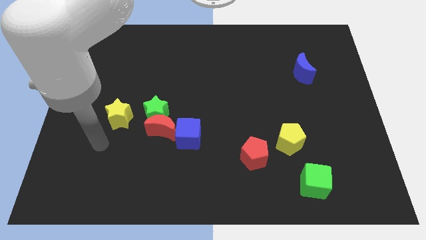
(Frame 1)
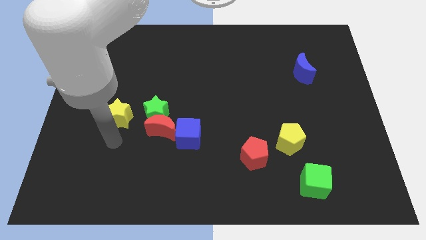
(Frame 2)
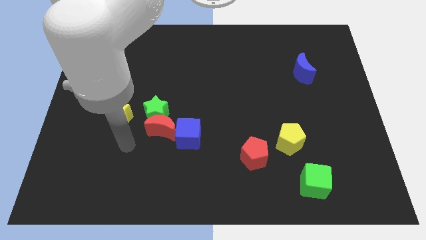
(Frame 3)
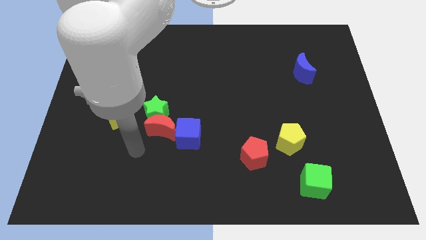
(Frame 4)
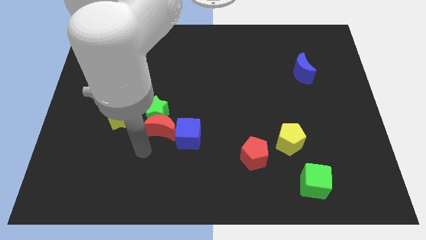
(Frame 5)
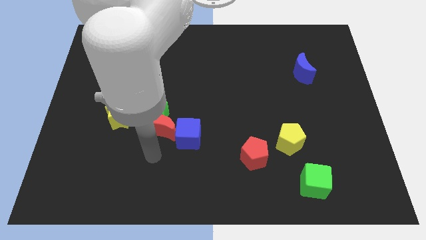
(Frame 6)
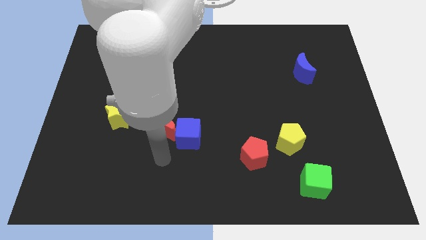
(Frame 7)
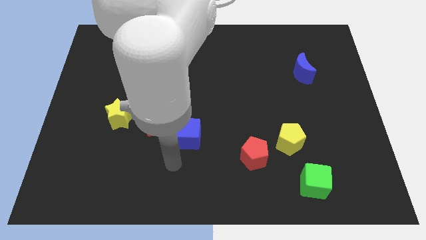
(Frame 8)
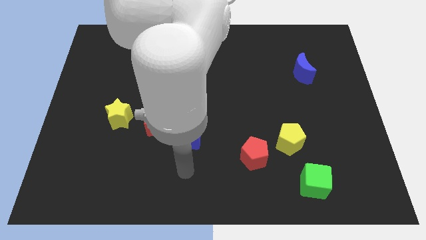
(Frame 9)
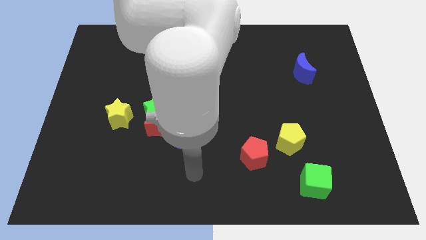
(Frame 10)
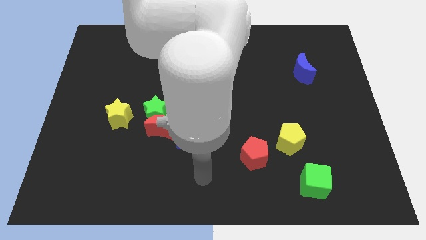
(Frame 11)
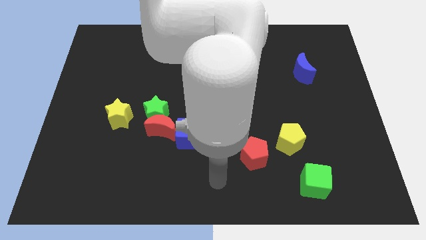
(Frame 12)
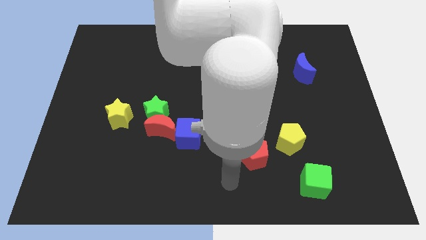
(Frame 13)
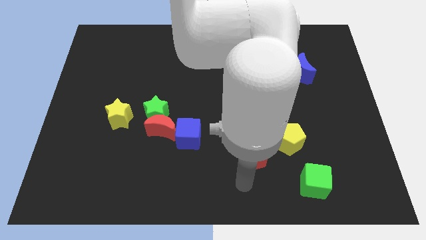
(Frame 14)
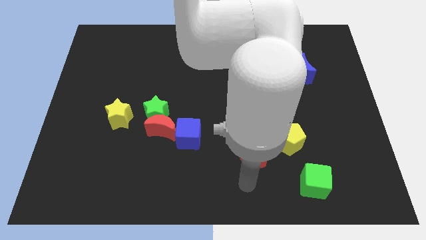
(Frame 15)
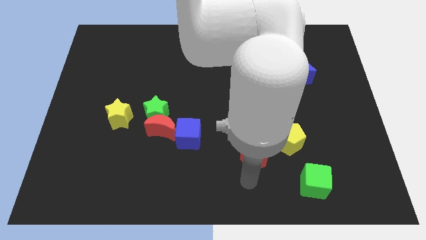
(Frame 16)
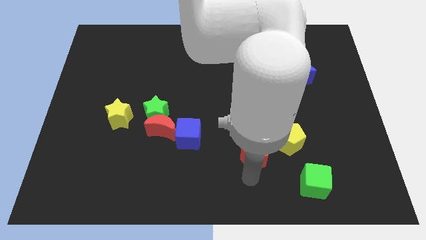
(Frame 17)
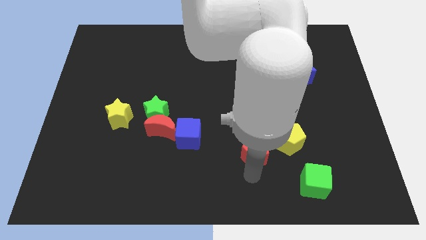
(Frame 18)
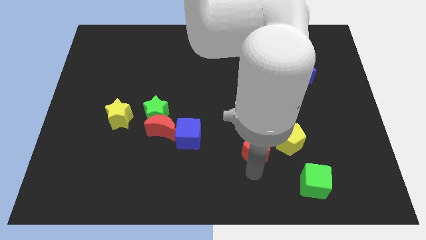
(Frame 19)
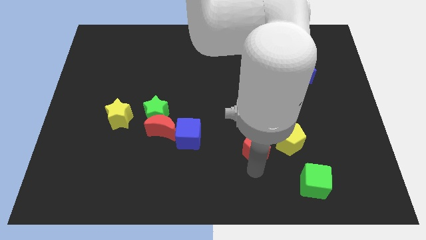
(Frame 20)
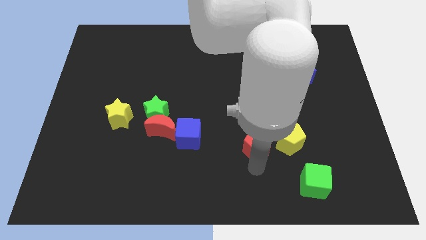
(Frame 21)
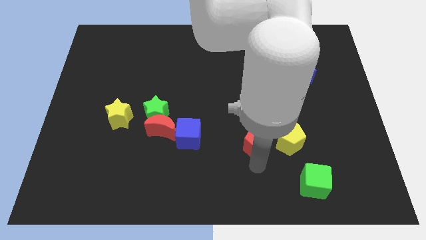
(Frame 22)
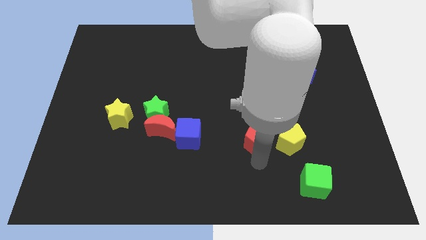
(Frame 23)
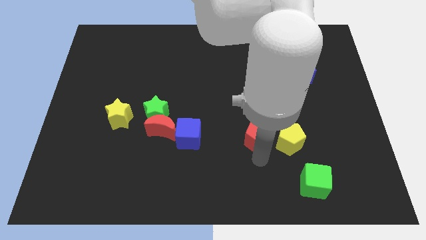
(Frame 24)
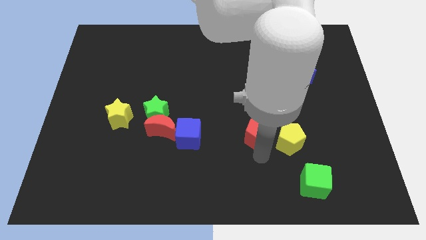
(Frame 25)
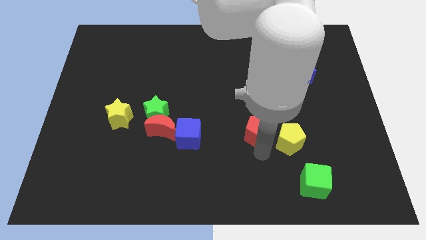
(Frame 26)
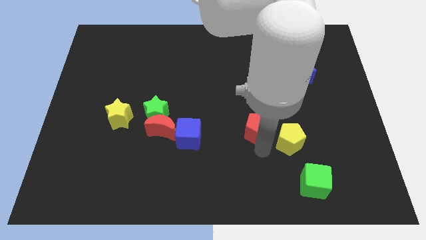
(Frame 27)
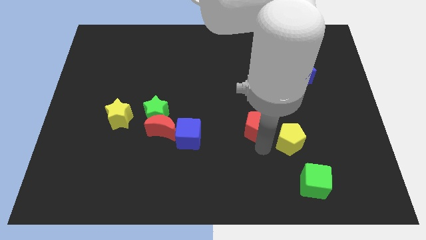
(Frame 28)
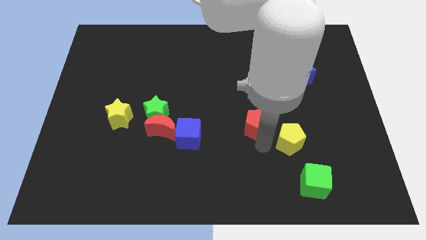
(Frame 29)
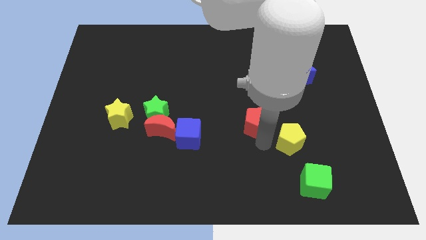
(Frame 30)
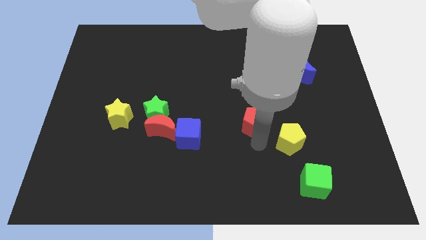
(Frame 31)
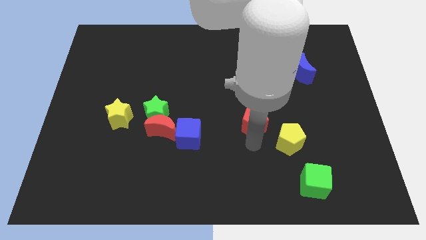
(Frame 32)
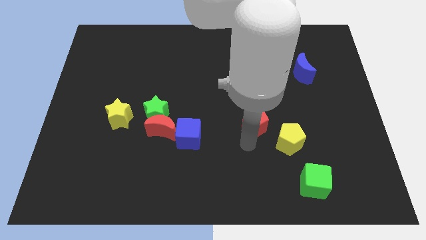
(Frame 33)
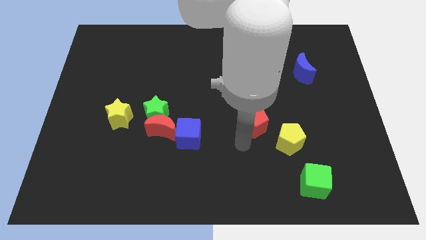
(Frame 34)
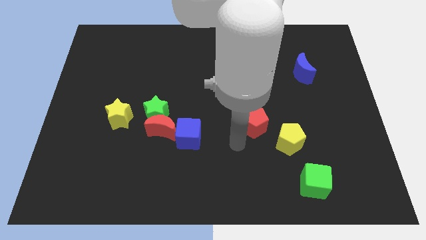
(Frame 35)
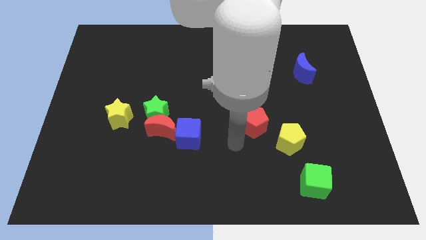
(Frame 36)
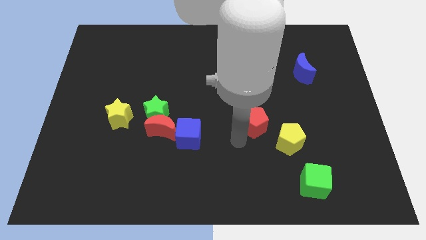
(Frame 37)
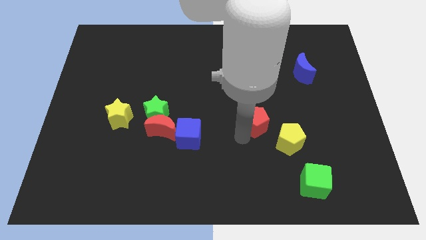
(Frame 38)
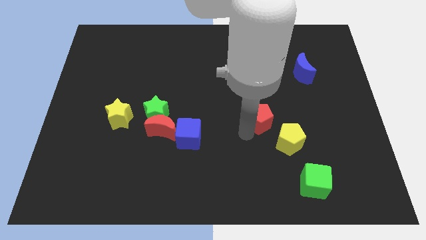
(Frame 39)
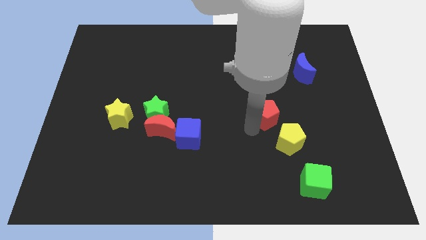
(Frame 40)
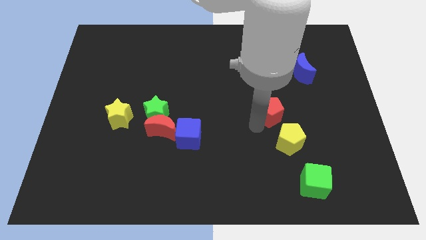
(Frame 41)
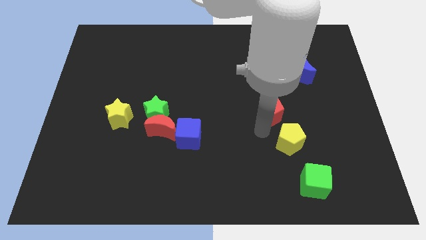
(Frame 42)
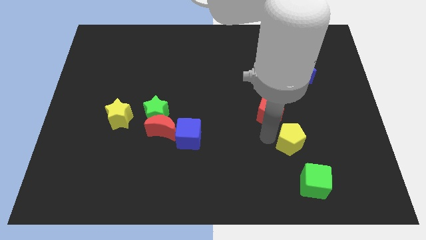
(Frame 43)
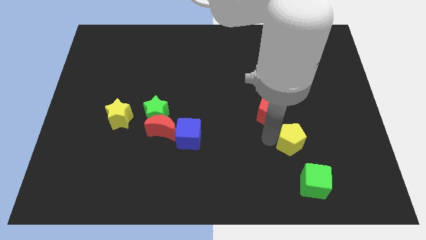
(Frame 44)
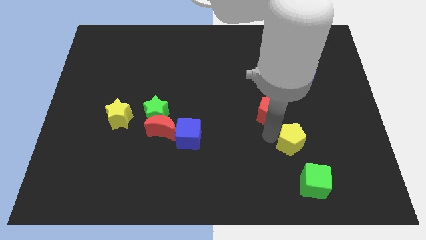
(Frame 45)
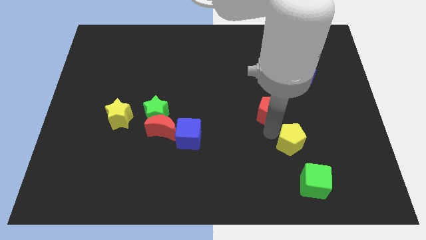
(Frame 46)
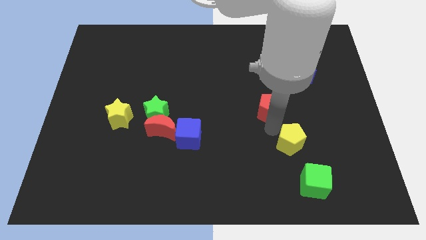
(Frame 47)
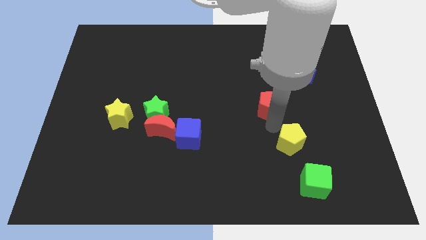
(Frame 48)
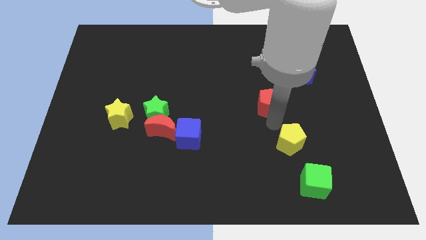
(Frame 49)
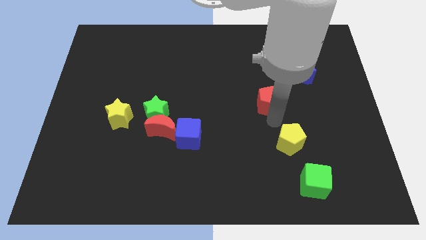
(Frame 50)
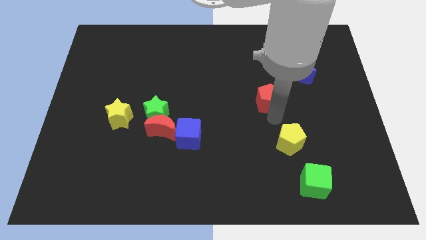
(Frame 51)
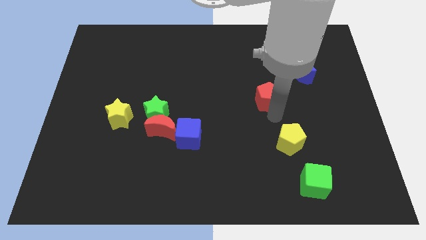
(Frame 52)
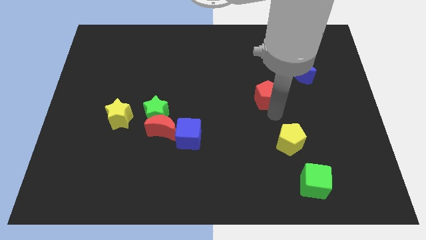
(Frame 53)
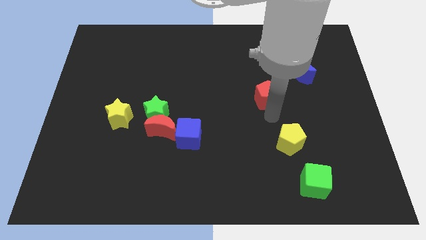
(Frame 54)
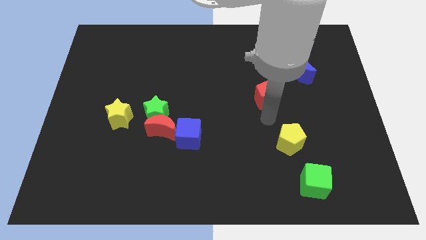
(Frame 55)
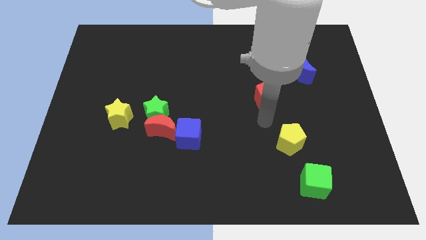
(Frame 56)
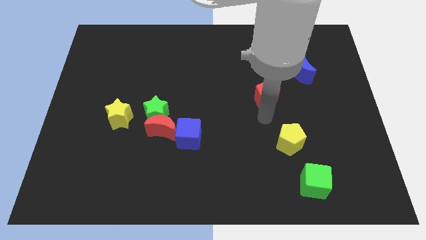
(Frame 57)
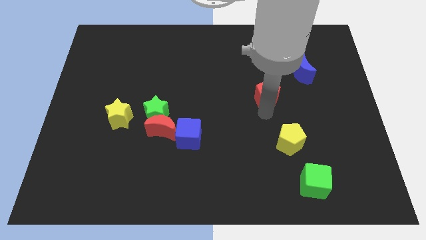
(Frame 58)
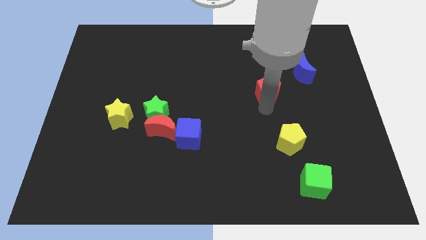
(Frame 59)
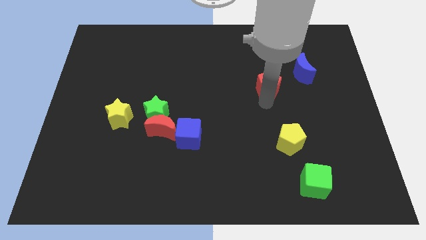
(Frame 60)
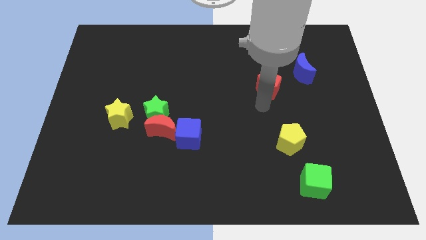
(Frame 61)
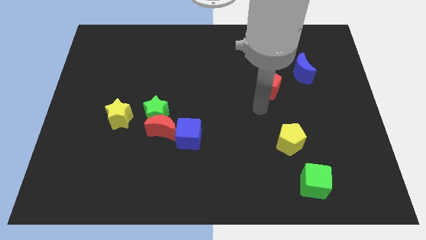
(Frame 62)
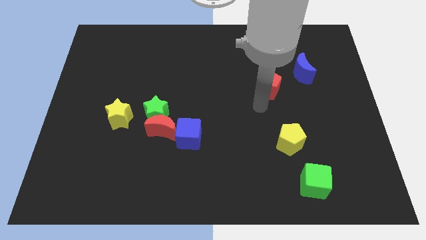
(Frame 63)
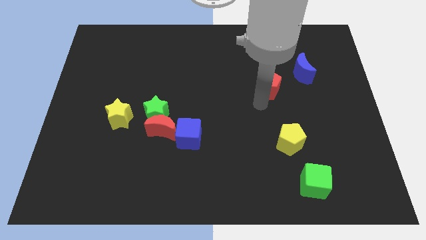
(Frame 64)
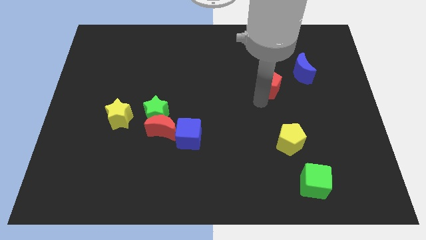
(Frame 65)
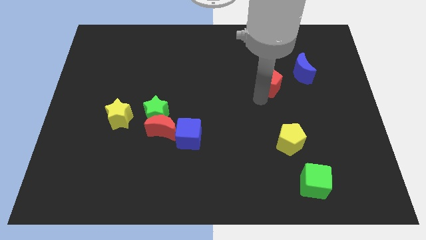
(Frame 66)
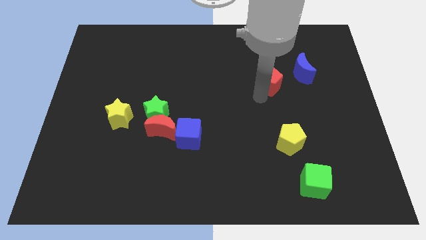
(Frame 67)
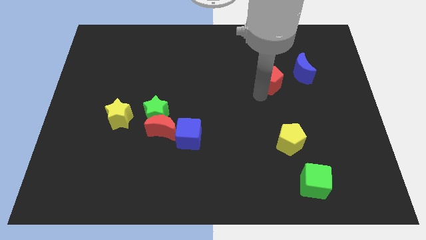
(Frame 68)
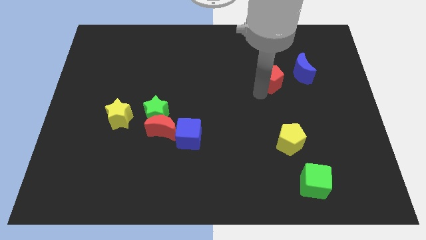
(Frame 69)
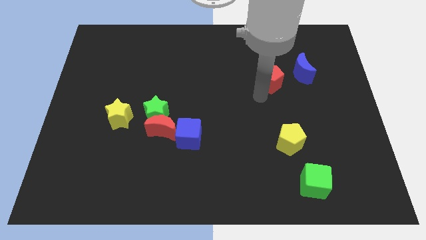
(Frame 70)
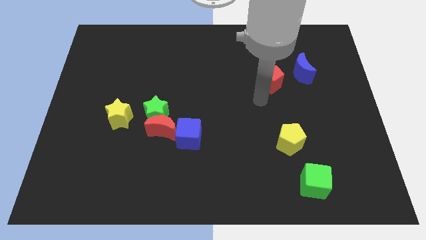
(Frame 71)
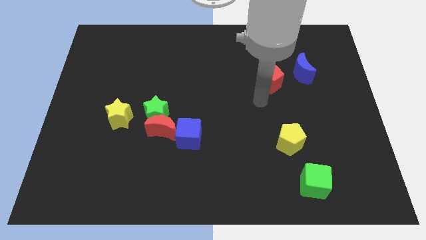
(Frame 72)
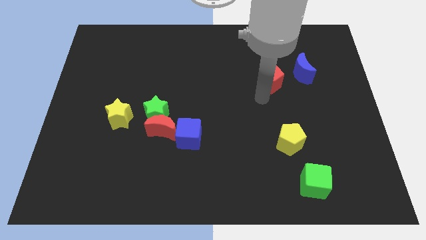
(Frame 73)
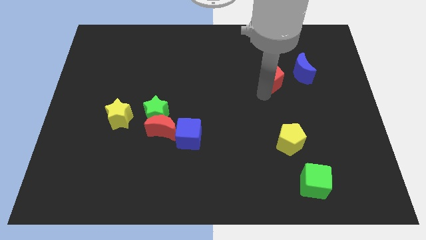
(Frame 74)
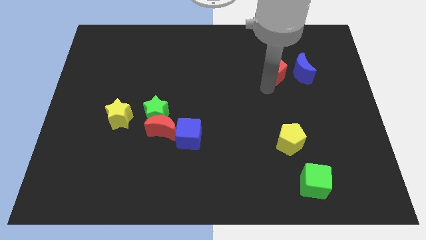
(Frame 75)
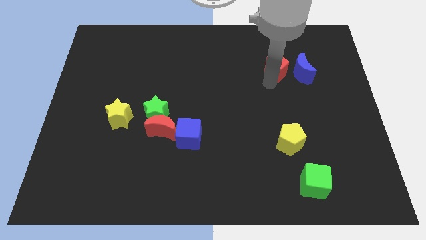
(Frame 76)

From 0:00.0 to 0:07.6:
slide the red pentagon diagonally up and to the left of the blue moon

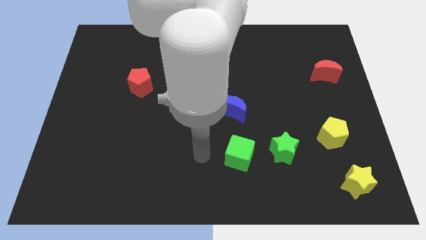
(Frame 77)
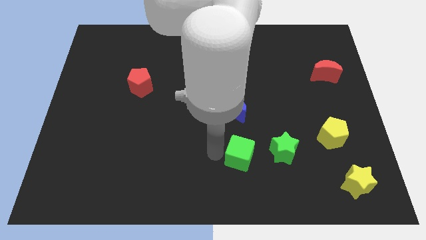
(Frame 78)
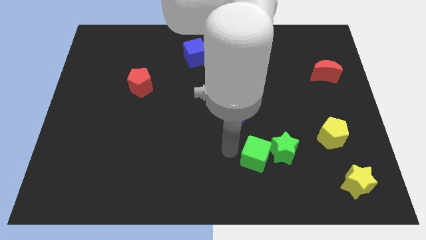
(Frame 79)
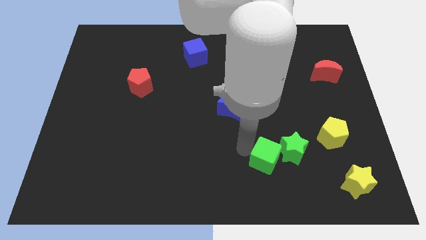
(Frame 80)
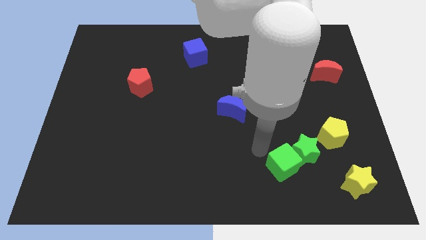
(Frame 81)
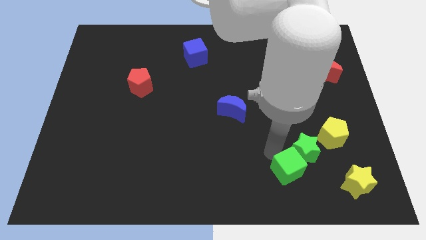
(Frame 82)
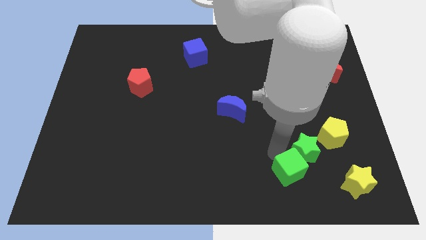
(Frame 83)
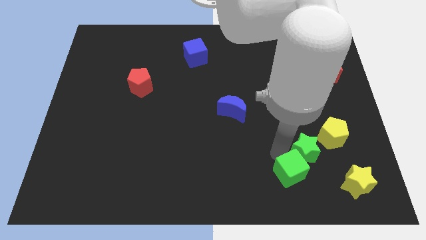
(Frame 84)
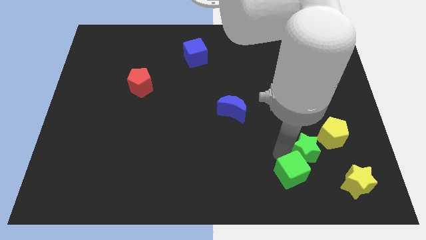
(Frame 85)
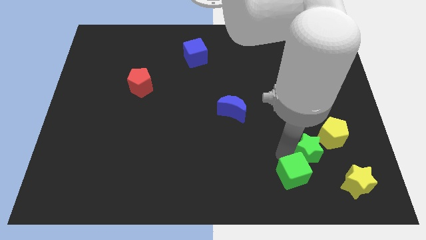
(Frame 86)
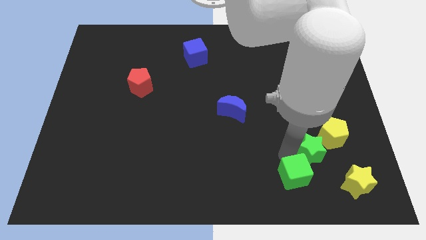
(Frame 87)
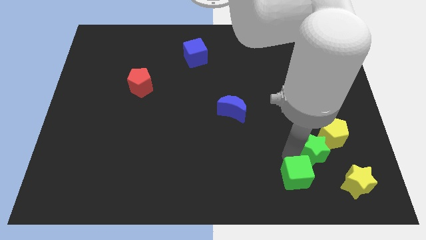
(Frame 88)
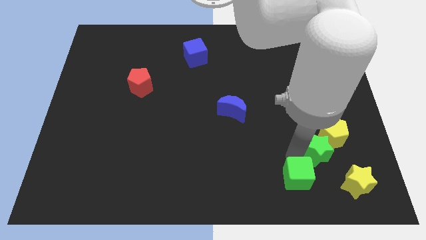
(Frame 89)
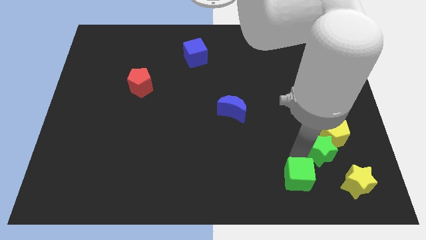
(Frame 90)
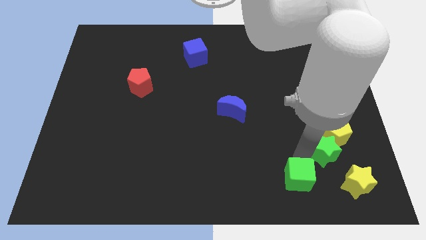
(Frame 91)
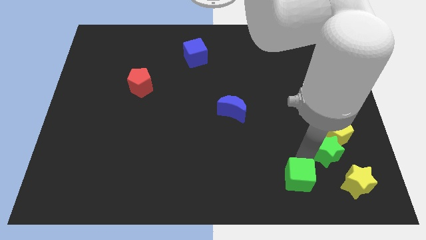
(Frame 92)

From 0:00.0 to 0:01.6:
slide the green star to the top of the yellow star
